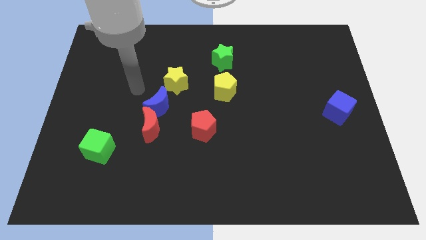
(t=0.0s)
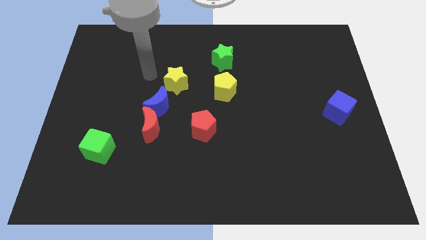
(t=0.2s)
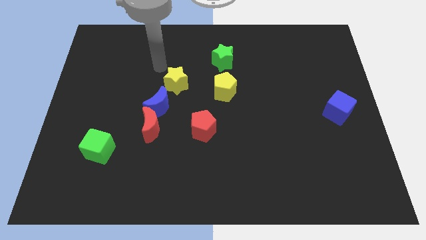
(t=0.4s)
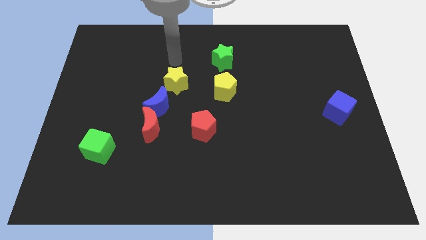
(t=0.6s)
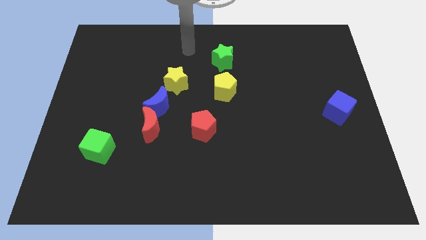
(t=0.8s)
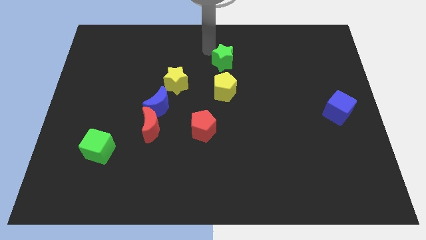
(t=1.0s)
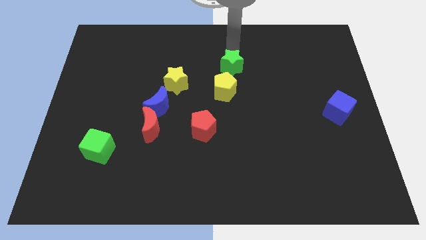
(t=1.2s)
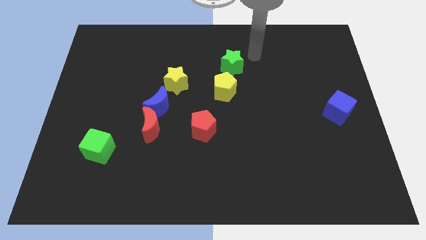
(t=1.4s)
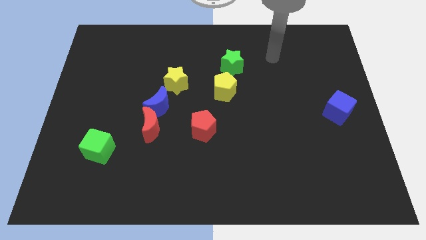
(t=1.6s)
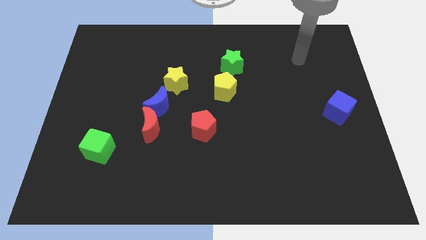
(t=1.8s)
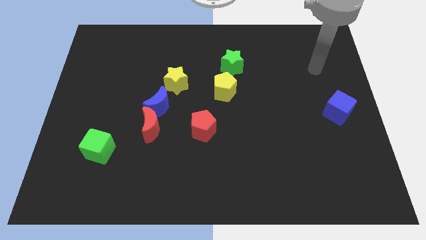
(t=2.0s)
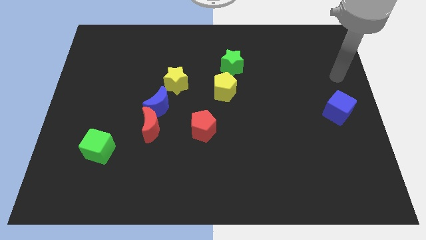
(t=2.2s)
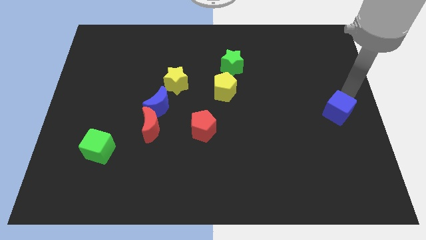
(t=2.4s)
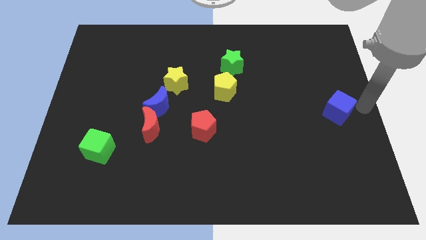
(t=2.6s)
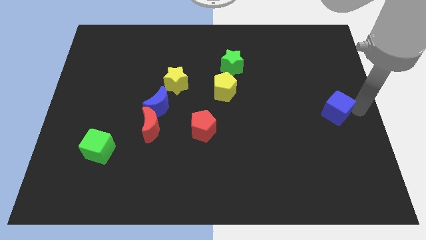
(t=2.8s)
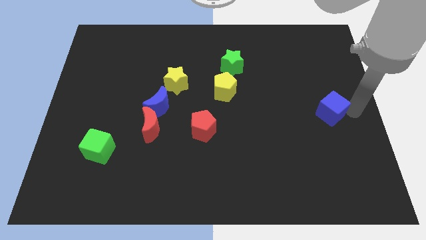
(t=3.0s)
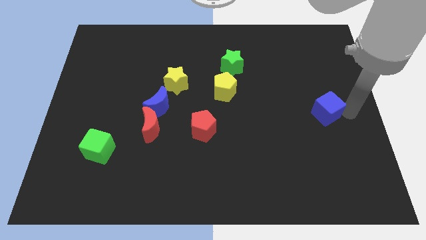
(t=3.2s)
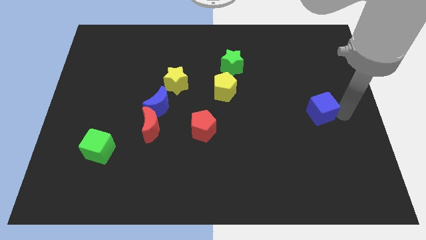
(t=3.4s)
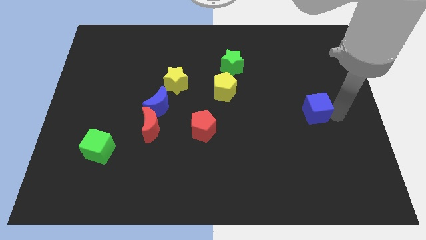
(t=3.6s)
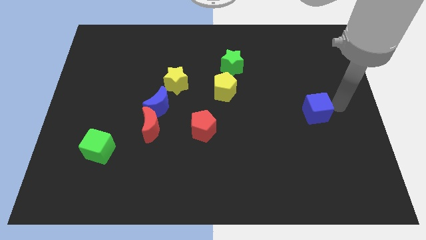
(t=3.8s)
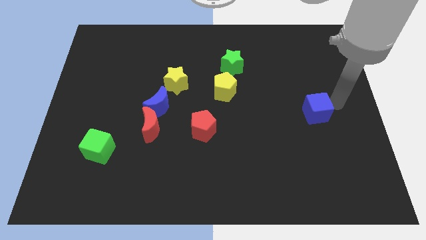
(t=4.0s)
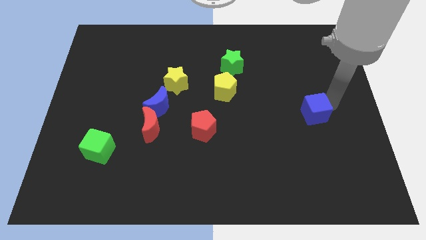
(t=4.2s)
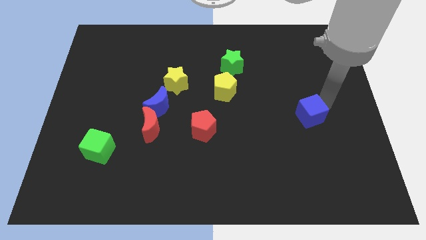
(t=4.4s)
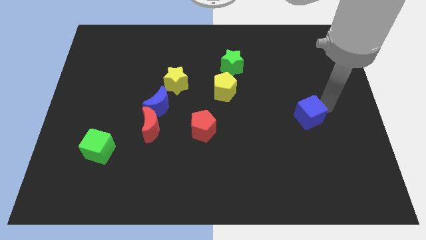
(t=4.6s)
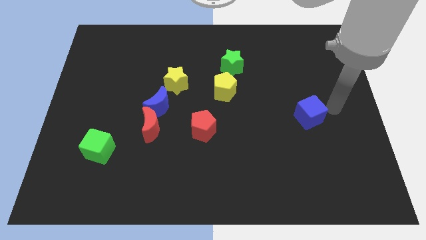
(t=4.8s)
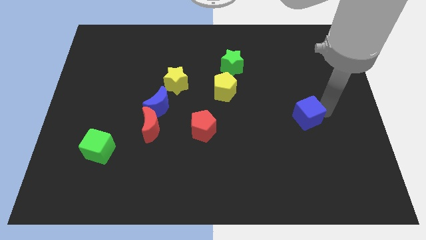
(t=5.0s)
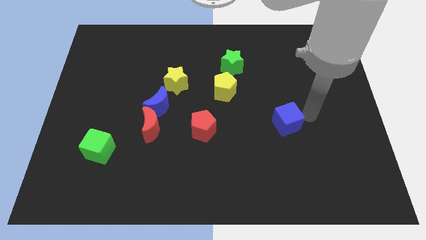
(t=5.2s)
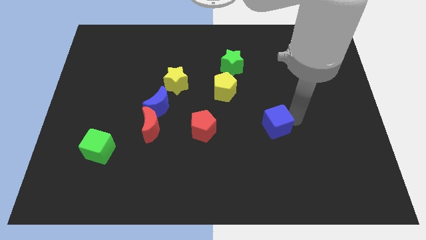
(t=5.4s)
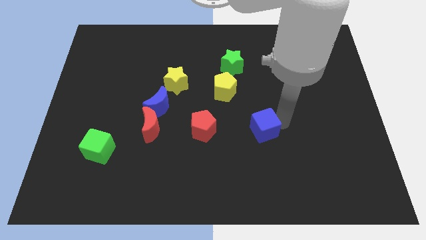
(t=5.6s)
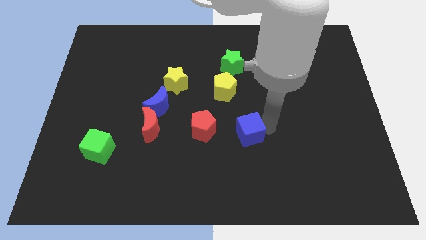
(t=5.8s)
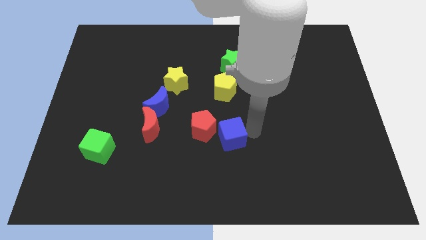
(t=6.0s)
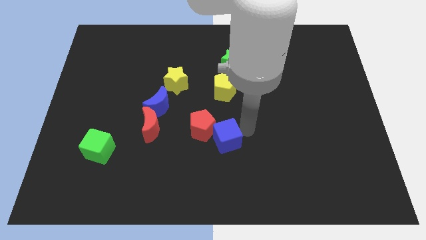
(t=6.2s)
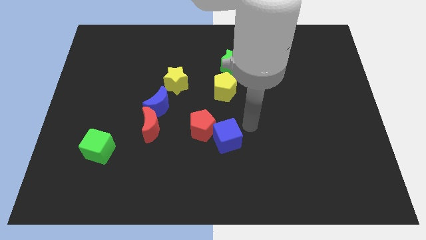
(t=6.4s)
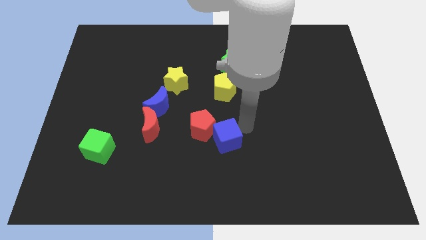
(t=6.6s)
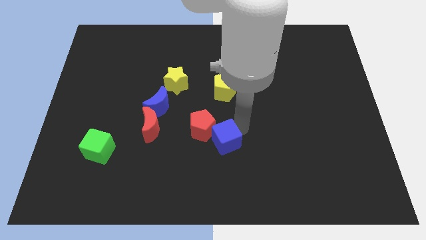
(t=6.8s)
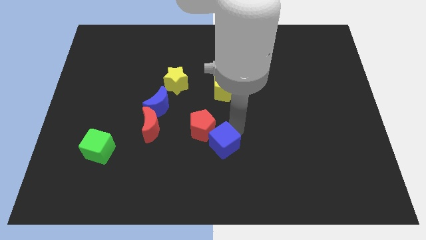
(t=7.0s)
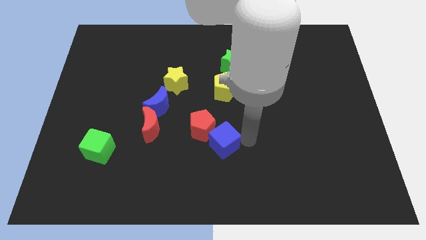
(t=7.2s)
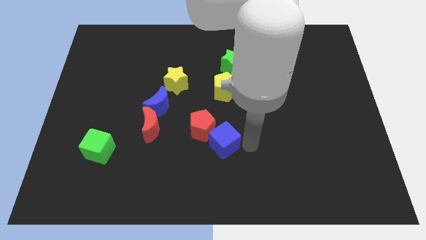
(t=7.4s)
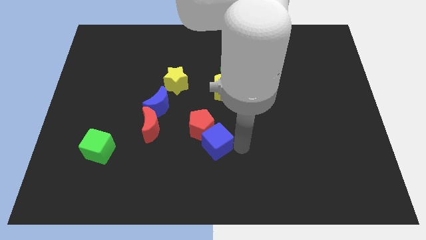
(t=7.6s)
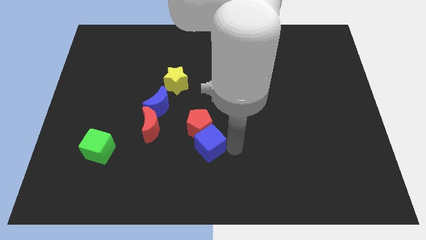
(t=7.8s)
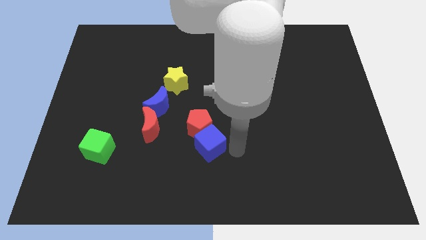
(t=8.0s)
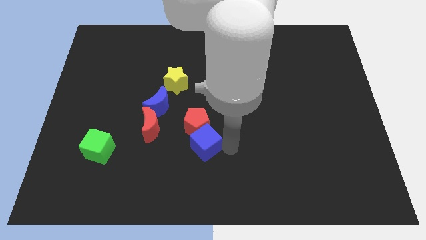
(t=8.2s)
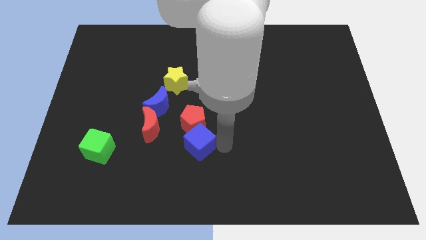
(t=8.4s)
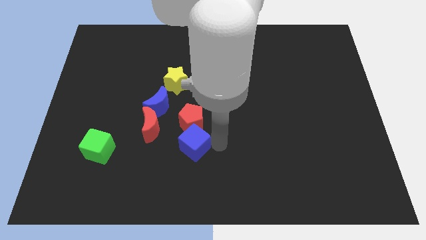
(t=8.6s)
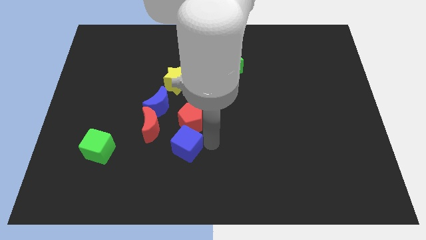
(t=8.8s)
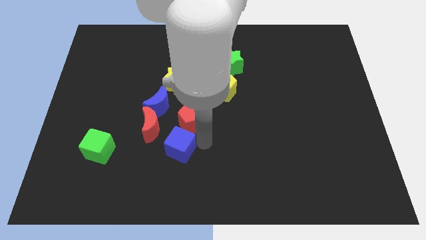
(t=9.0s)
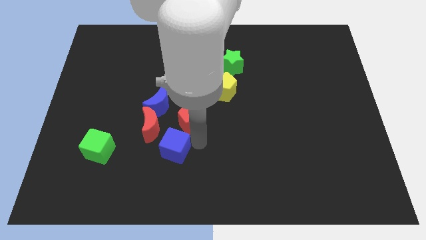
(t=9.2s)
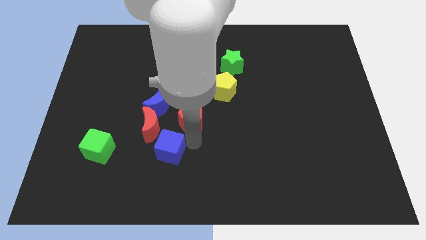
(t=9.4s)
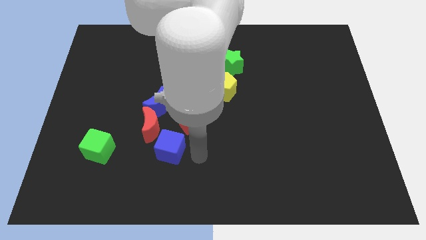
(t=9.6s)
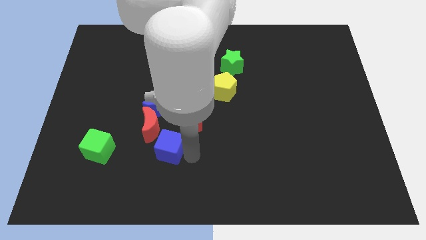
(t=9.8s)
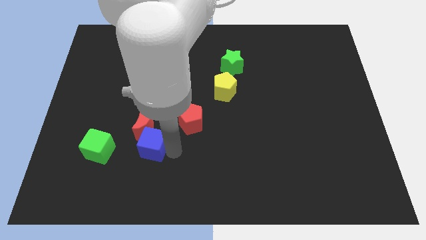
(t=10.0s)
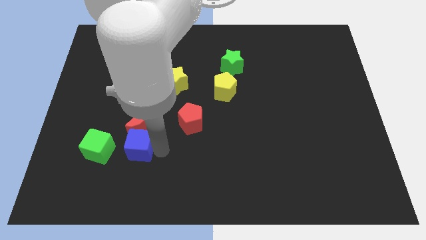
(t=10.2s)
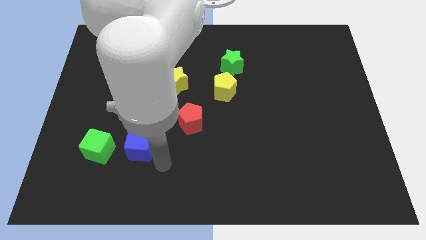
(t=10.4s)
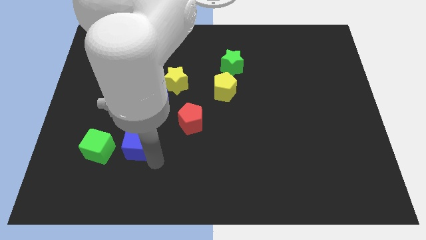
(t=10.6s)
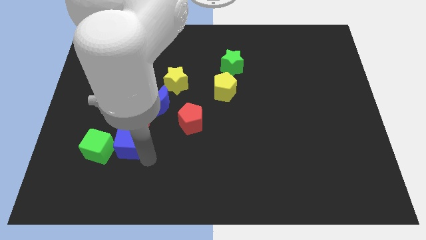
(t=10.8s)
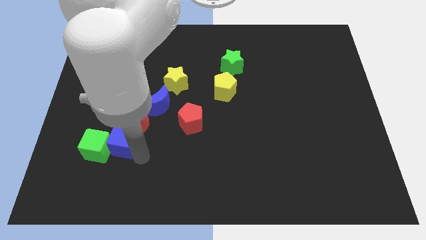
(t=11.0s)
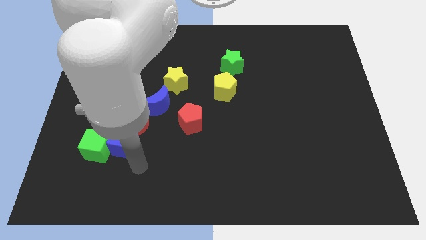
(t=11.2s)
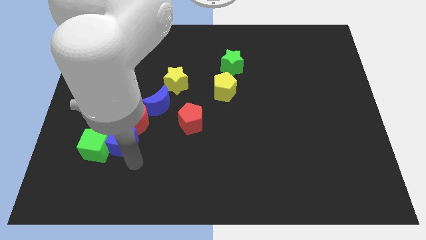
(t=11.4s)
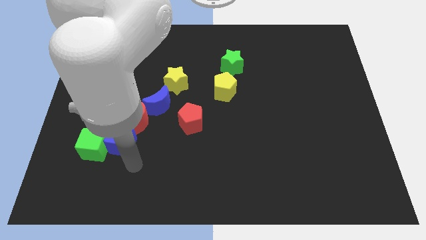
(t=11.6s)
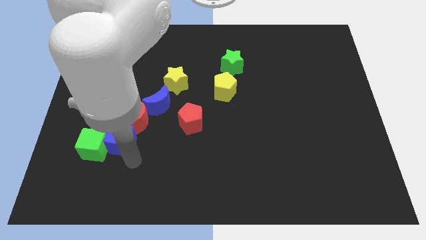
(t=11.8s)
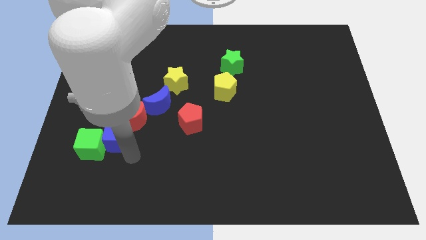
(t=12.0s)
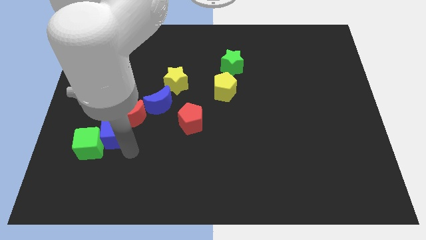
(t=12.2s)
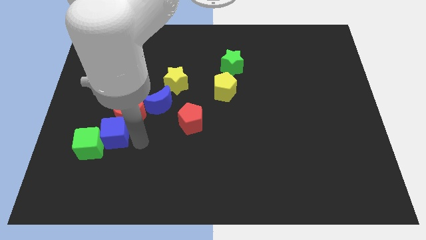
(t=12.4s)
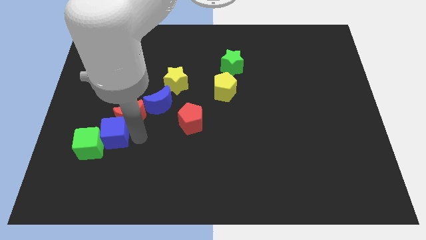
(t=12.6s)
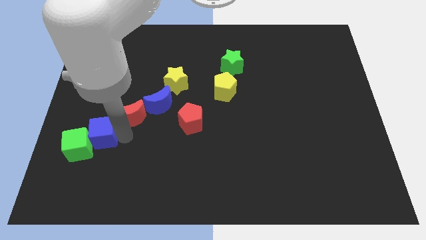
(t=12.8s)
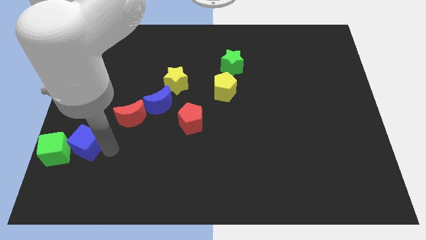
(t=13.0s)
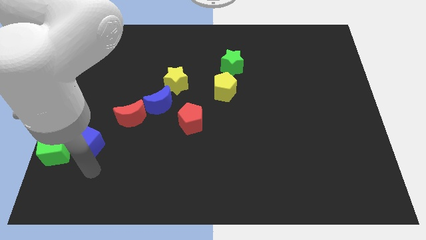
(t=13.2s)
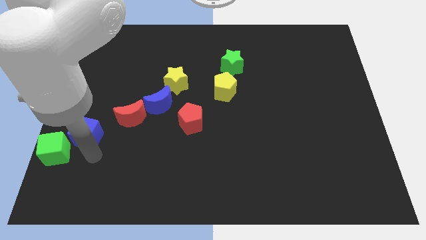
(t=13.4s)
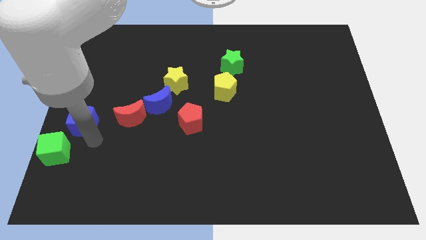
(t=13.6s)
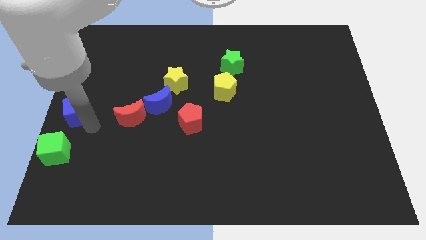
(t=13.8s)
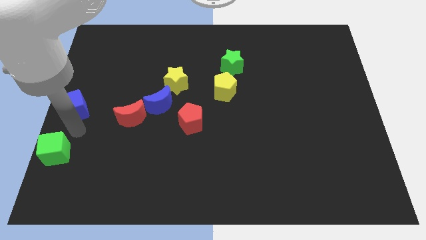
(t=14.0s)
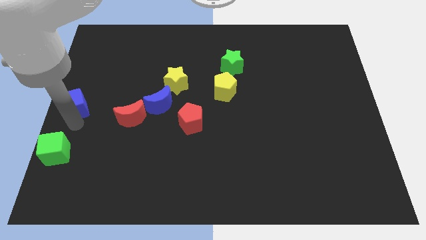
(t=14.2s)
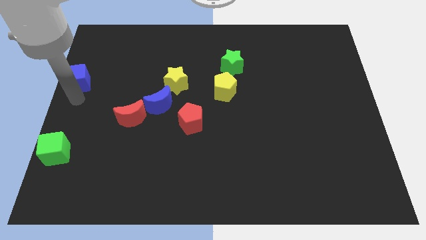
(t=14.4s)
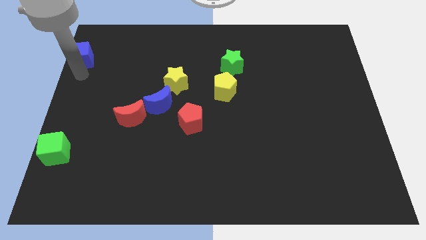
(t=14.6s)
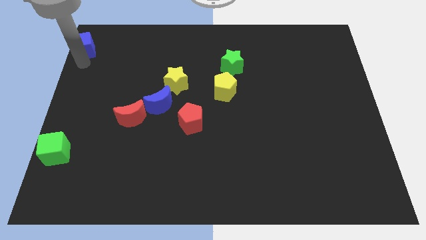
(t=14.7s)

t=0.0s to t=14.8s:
push the blue cube to the upper left corner
